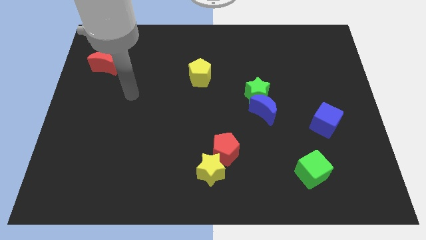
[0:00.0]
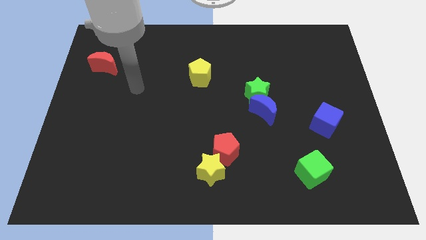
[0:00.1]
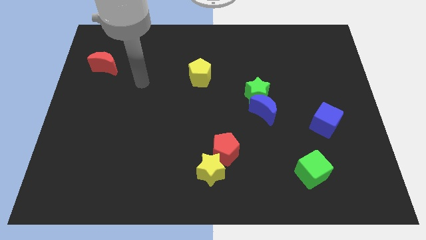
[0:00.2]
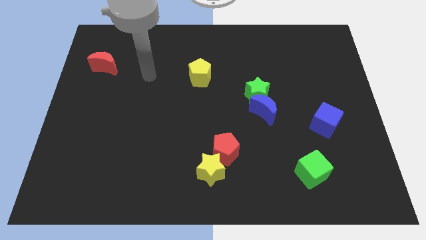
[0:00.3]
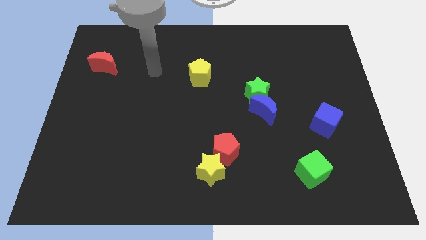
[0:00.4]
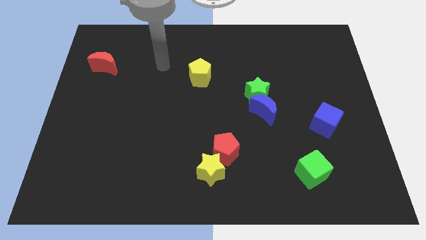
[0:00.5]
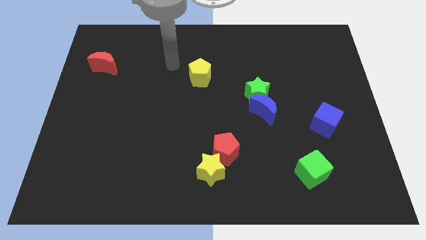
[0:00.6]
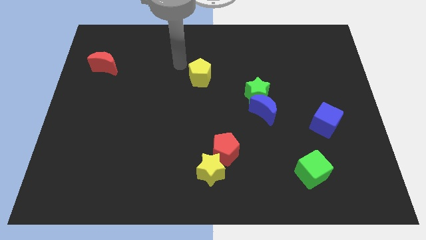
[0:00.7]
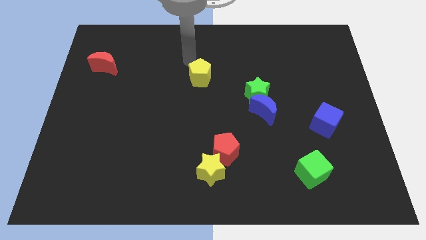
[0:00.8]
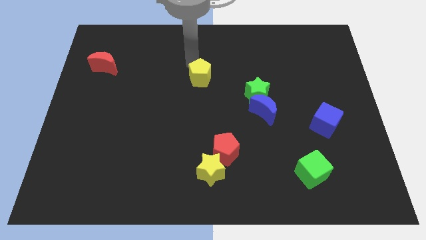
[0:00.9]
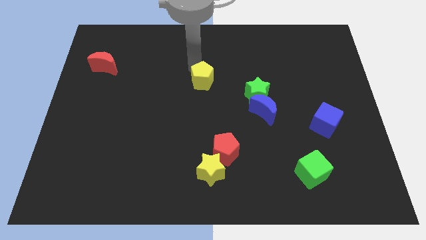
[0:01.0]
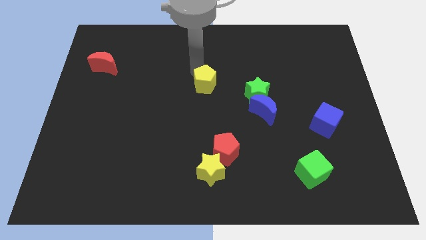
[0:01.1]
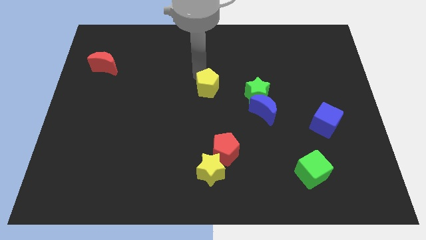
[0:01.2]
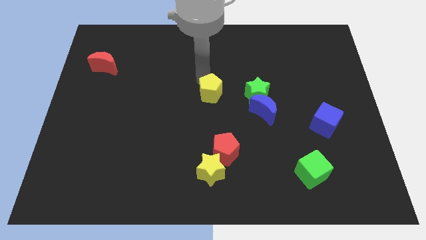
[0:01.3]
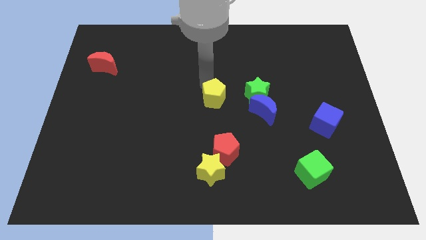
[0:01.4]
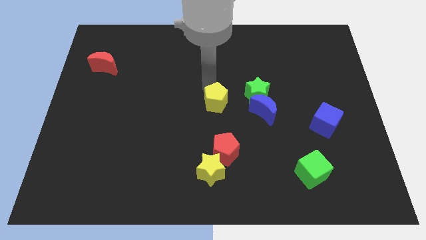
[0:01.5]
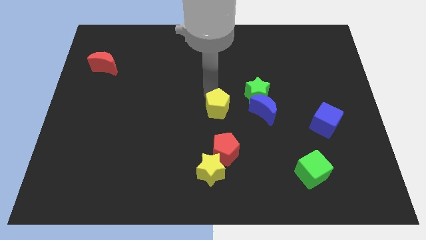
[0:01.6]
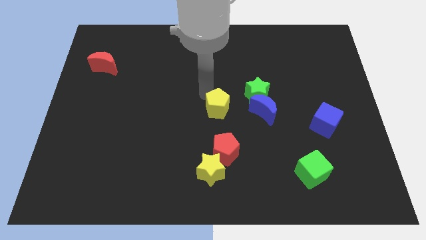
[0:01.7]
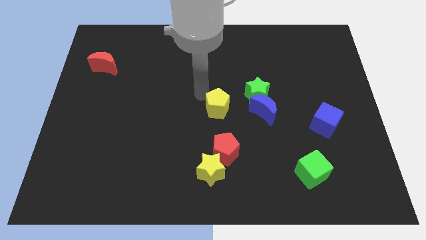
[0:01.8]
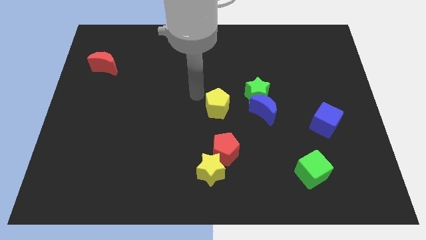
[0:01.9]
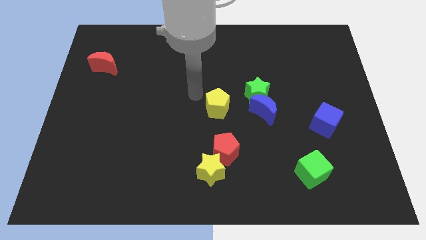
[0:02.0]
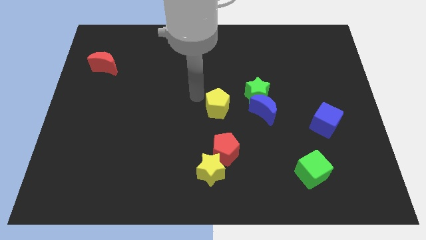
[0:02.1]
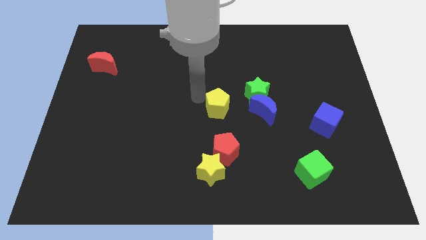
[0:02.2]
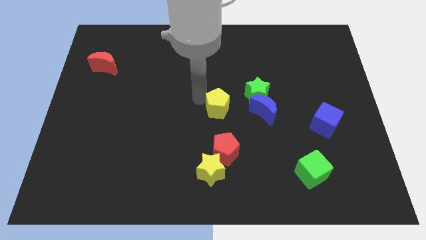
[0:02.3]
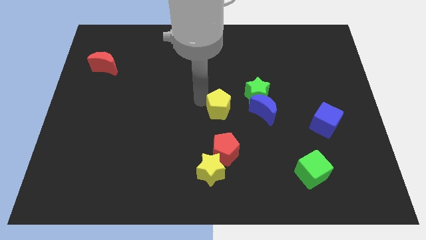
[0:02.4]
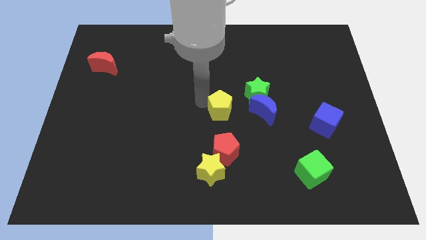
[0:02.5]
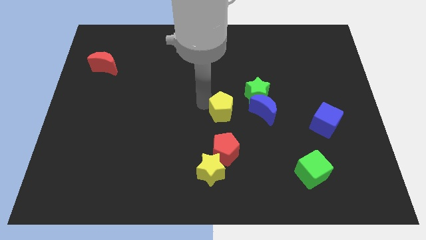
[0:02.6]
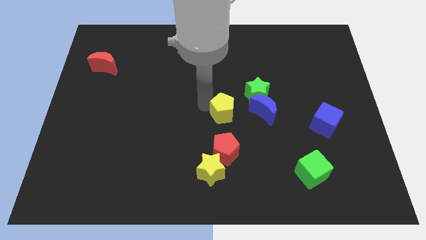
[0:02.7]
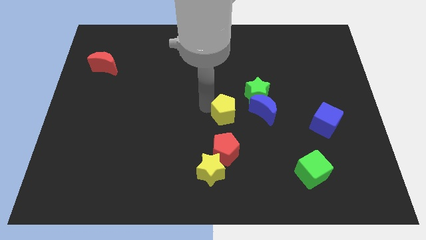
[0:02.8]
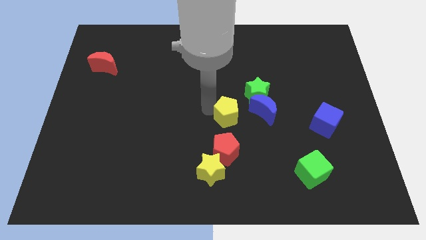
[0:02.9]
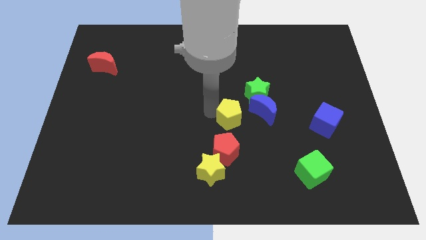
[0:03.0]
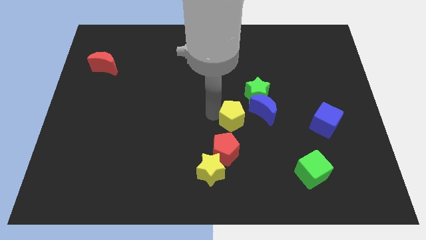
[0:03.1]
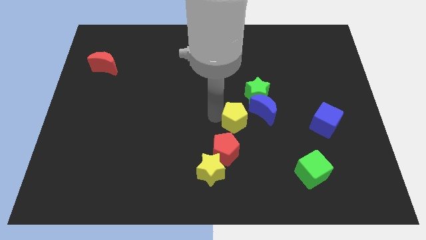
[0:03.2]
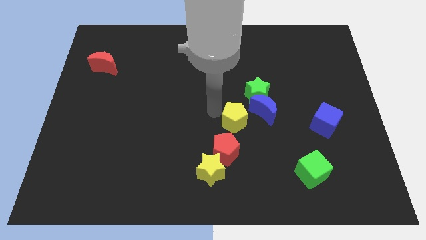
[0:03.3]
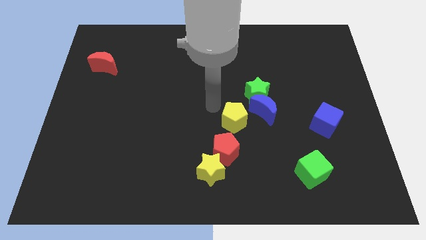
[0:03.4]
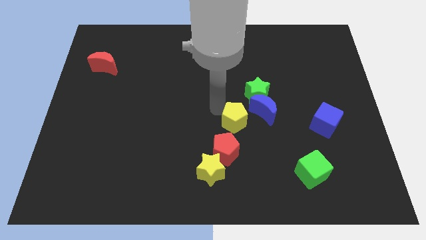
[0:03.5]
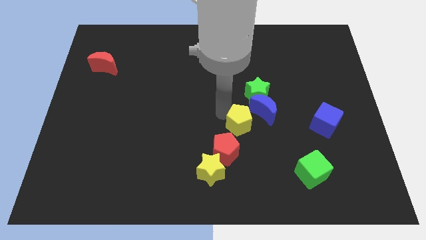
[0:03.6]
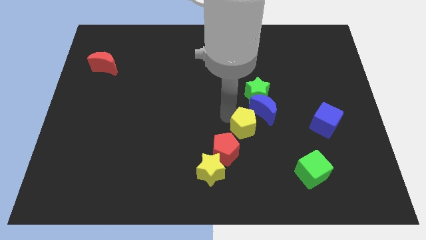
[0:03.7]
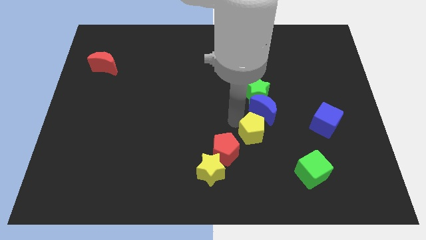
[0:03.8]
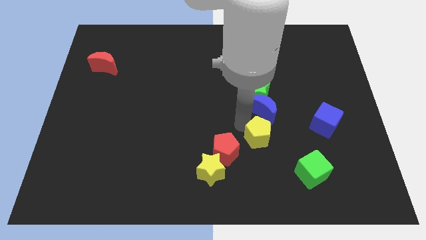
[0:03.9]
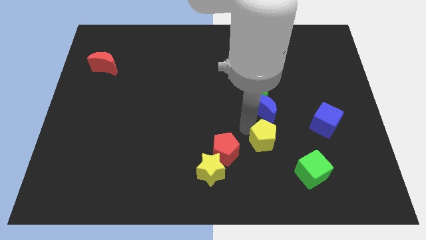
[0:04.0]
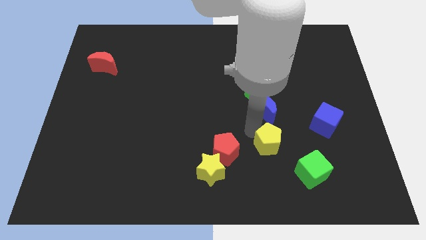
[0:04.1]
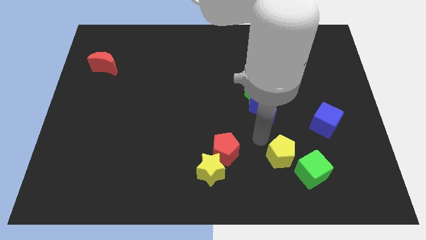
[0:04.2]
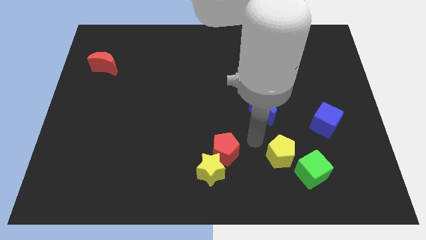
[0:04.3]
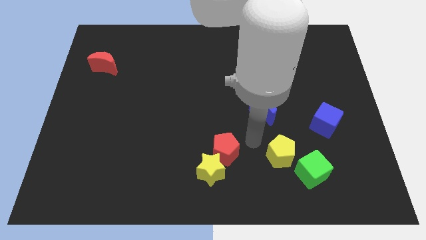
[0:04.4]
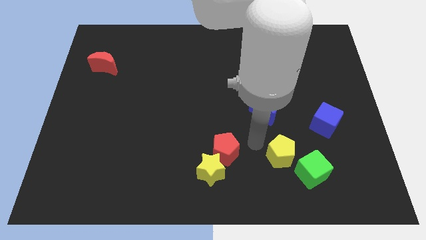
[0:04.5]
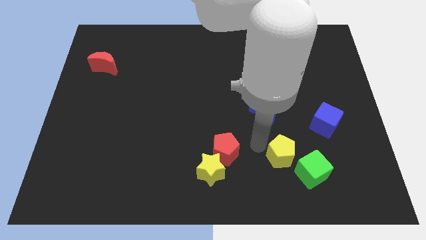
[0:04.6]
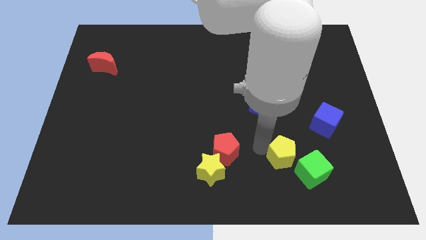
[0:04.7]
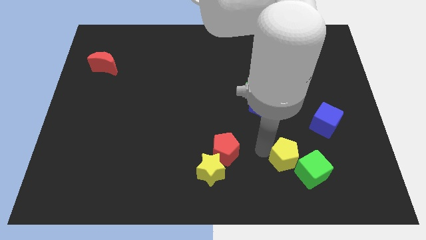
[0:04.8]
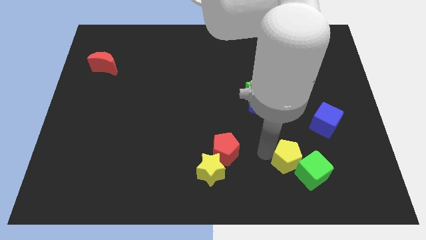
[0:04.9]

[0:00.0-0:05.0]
push the yellow pentagon close to the green cube

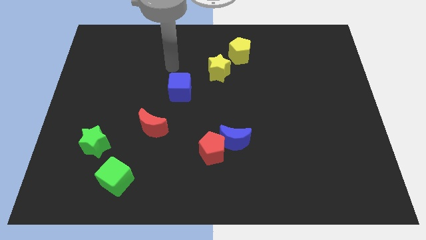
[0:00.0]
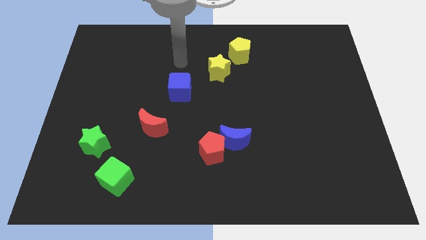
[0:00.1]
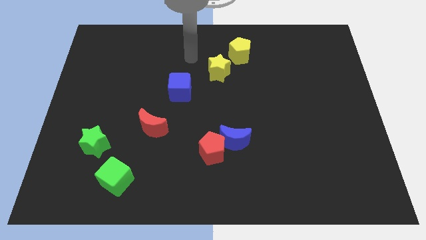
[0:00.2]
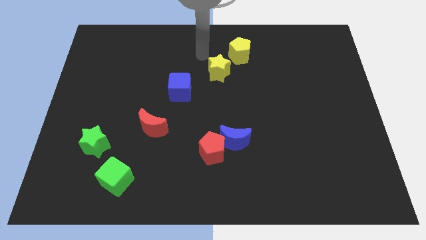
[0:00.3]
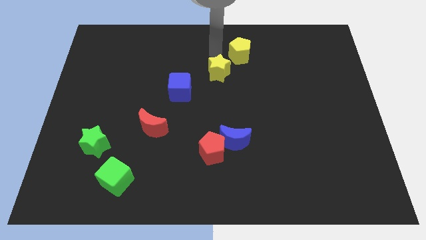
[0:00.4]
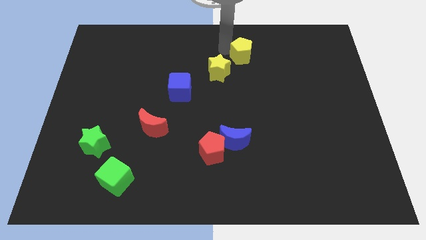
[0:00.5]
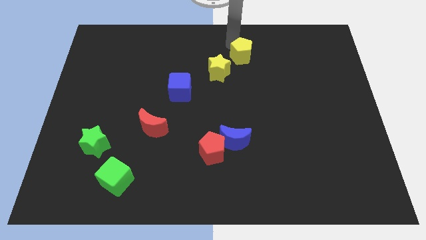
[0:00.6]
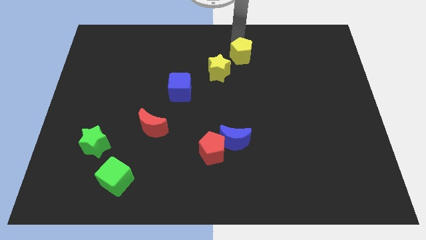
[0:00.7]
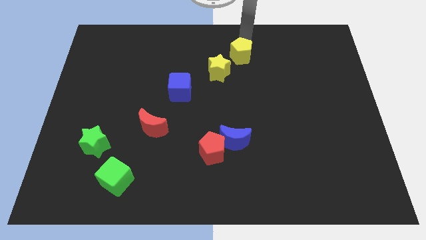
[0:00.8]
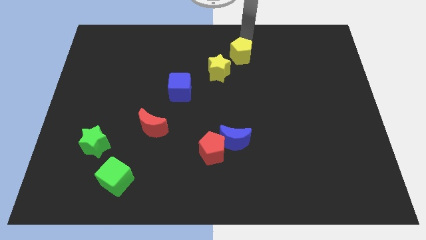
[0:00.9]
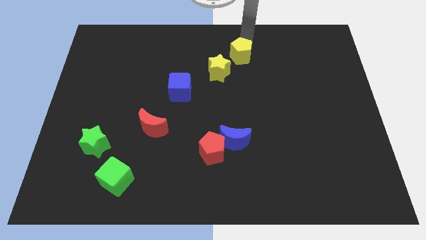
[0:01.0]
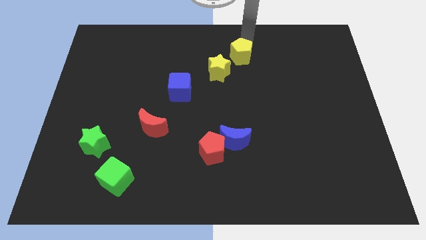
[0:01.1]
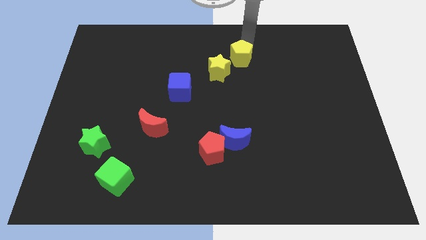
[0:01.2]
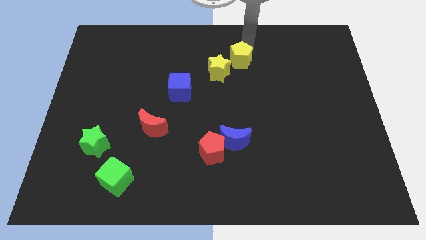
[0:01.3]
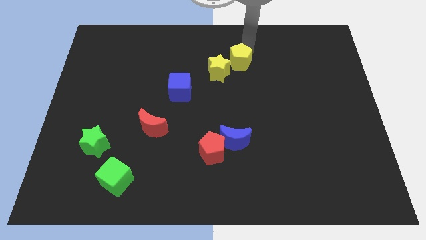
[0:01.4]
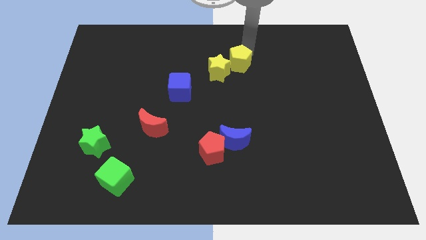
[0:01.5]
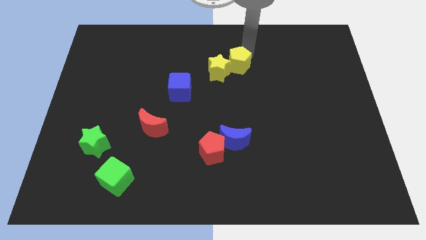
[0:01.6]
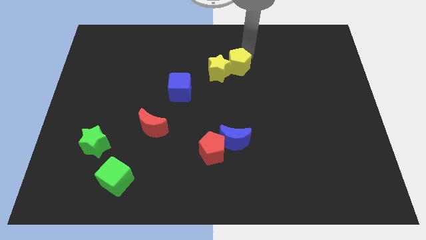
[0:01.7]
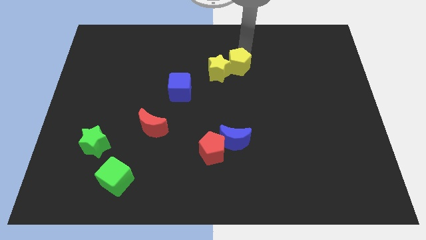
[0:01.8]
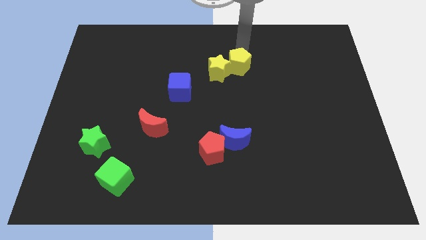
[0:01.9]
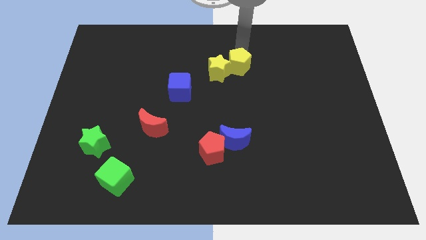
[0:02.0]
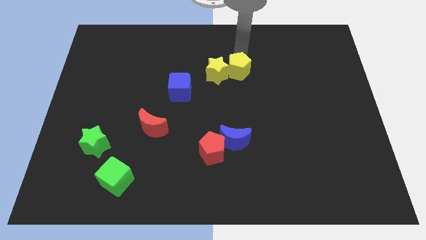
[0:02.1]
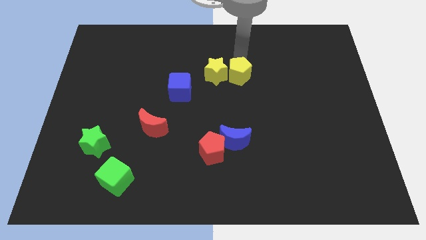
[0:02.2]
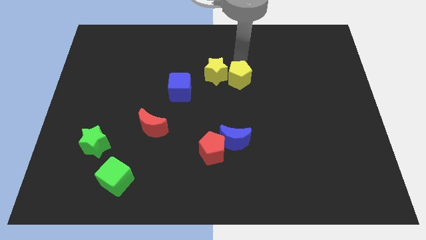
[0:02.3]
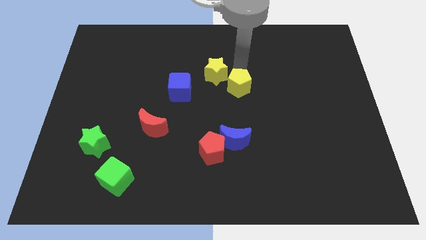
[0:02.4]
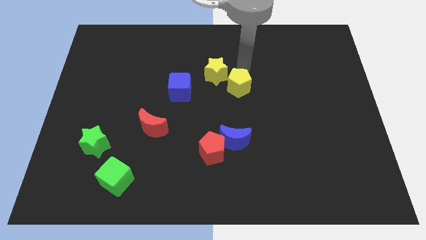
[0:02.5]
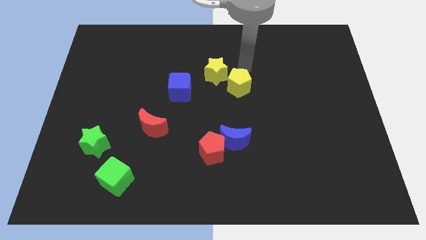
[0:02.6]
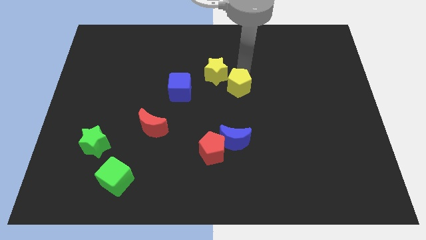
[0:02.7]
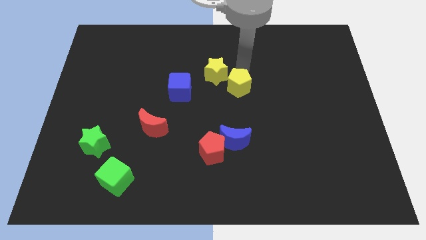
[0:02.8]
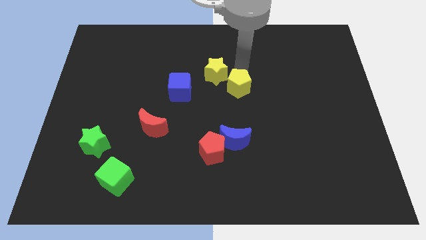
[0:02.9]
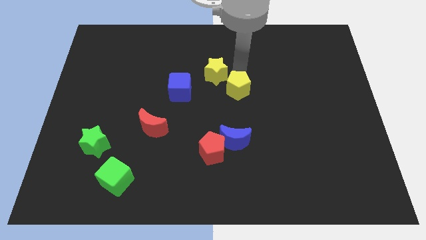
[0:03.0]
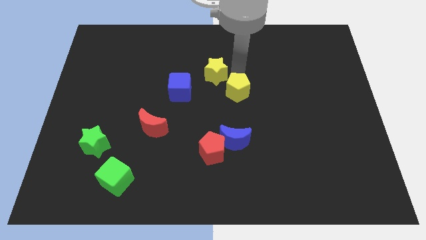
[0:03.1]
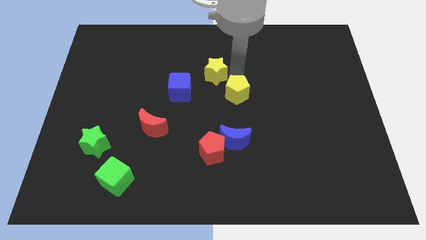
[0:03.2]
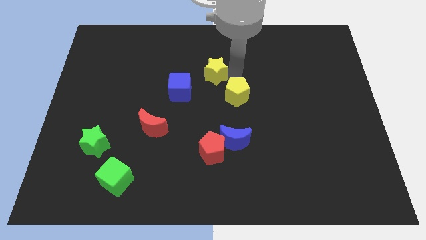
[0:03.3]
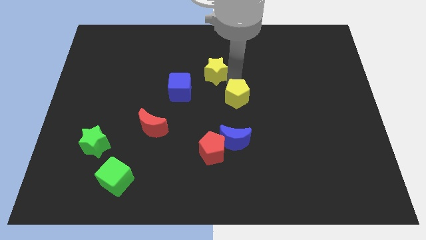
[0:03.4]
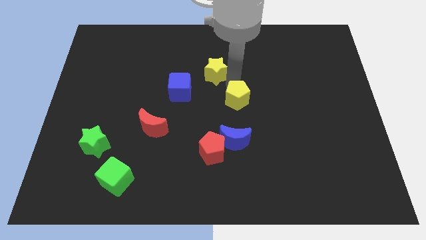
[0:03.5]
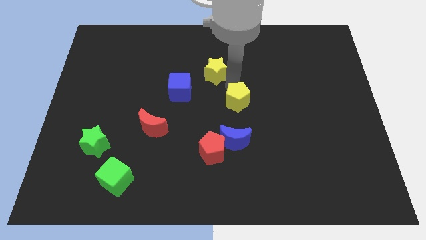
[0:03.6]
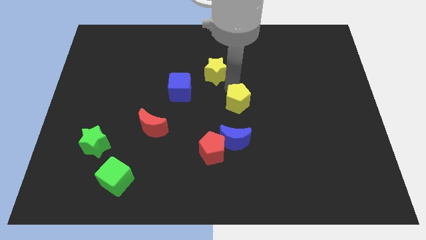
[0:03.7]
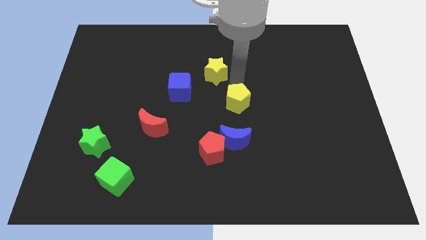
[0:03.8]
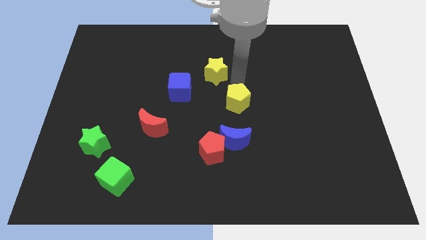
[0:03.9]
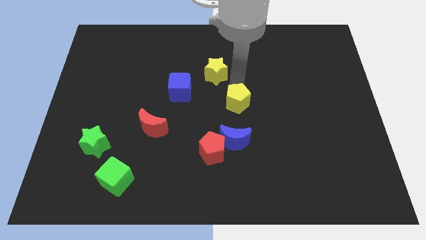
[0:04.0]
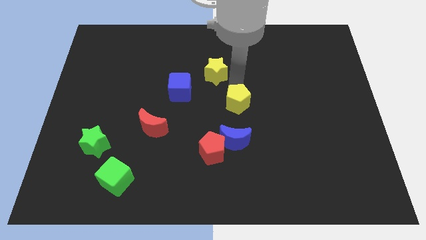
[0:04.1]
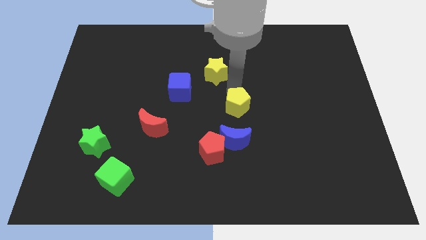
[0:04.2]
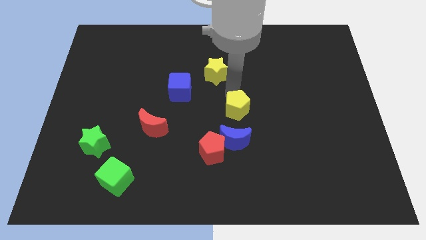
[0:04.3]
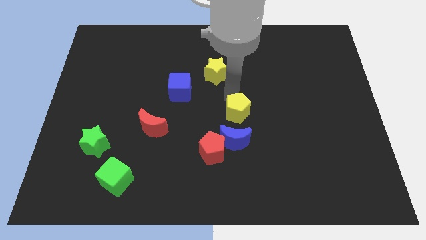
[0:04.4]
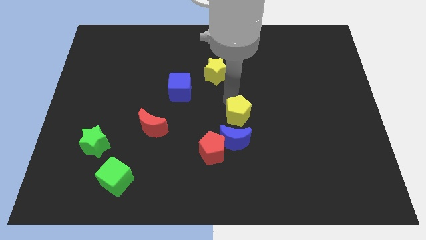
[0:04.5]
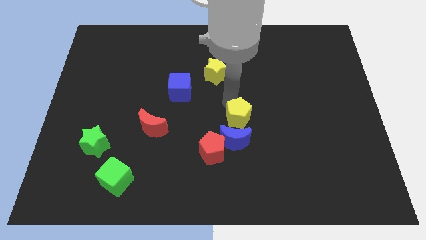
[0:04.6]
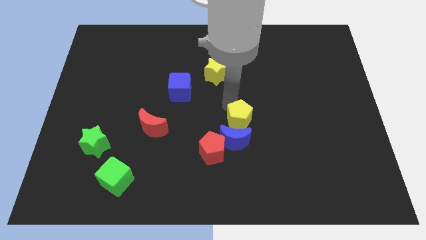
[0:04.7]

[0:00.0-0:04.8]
slide the yellow pentagon close to the blue moon
